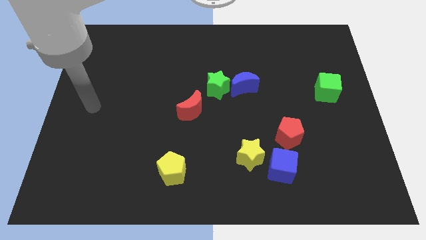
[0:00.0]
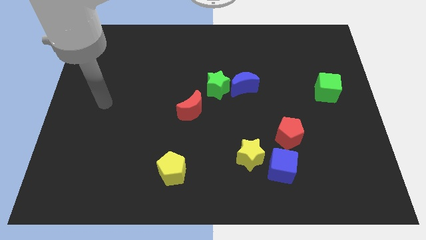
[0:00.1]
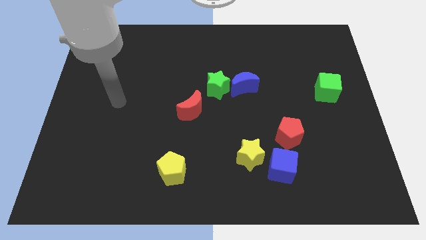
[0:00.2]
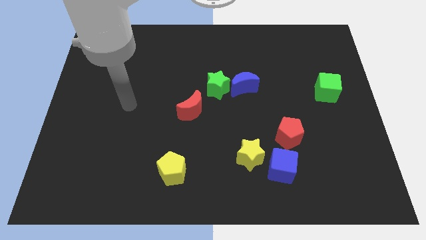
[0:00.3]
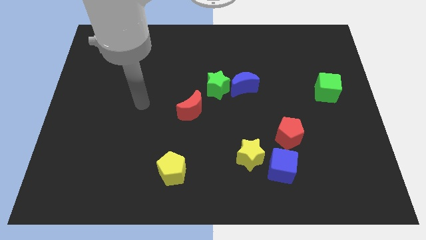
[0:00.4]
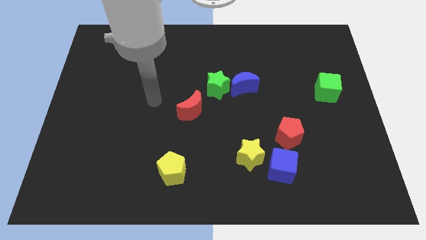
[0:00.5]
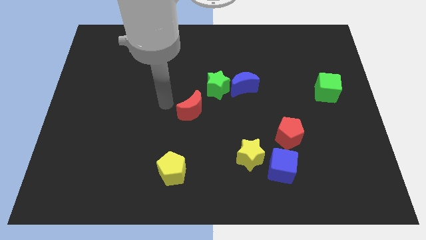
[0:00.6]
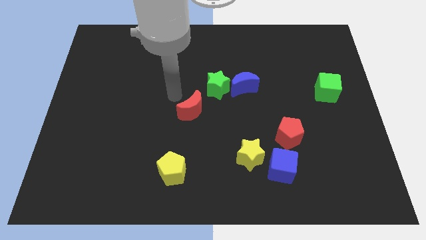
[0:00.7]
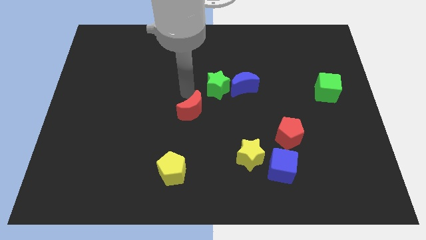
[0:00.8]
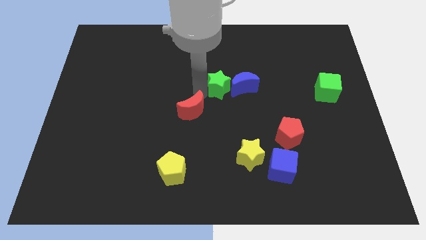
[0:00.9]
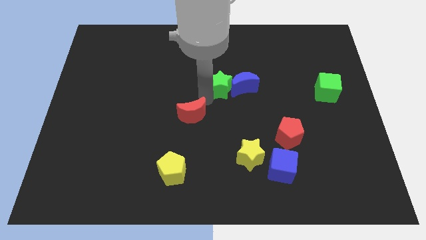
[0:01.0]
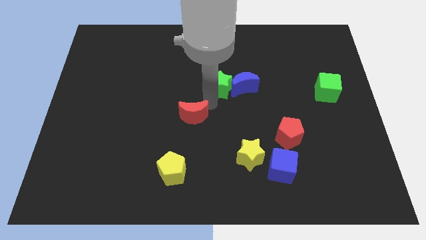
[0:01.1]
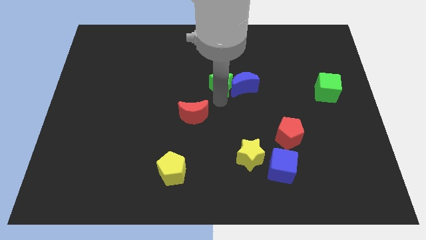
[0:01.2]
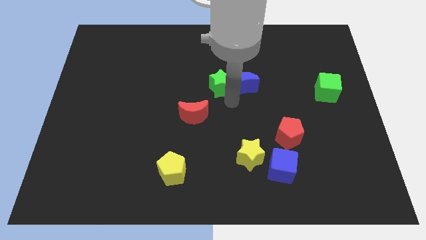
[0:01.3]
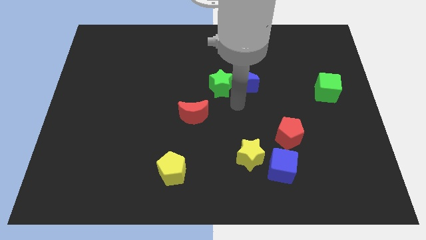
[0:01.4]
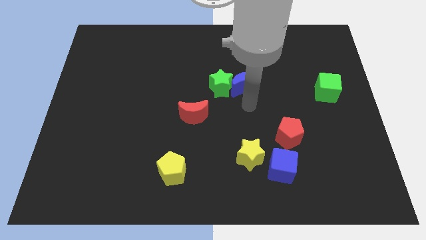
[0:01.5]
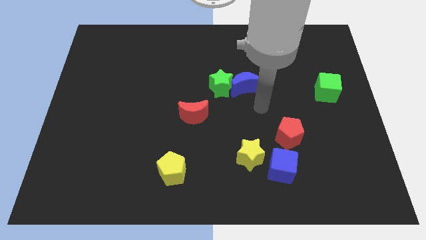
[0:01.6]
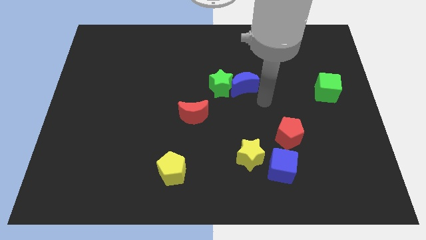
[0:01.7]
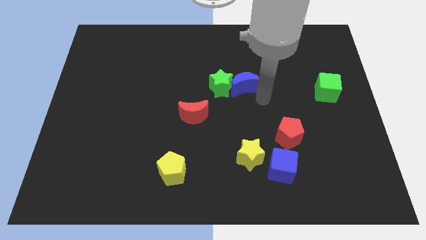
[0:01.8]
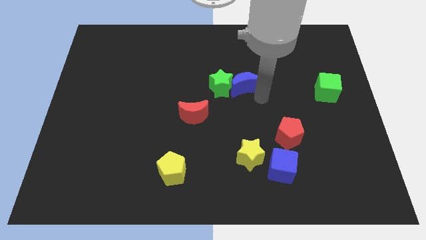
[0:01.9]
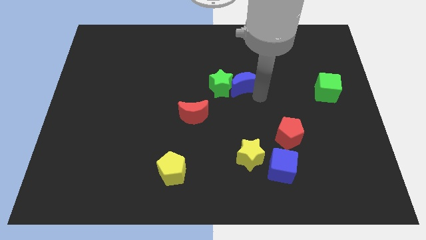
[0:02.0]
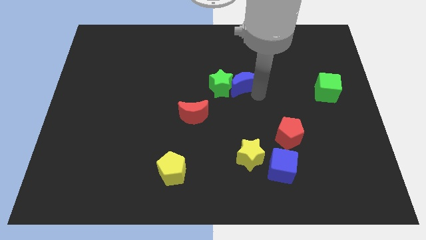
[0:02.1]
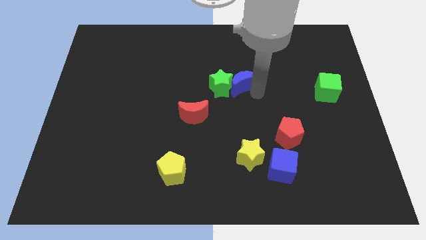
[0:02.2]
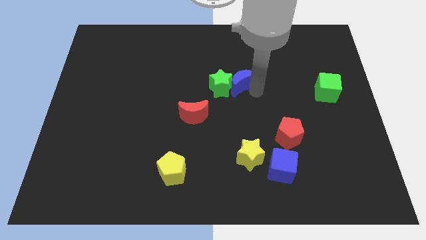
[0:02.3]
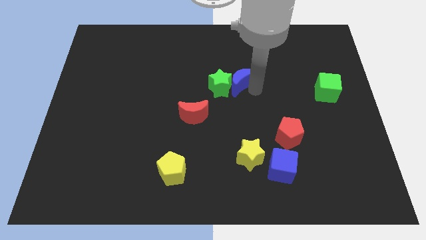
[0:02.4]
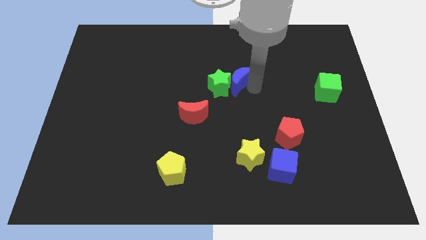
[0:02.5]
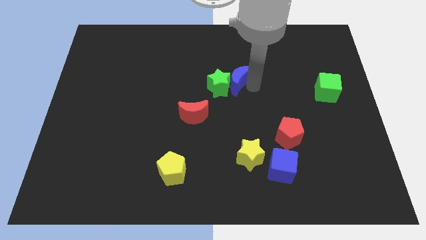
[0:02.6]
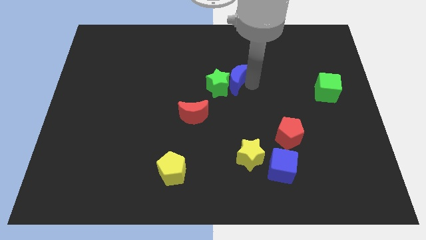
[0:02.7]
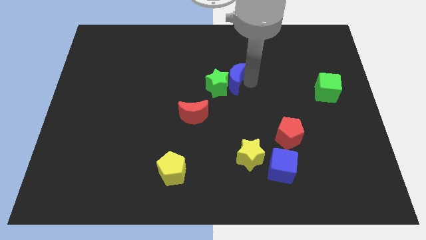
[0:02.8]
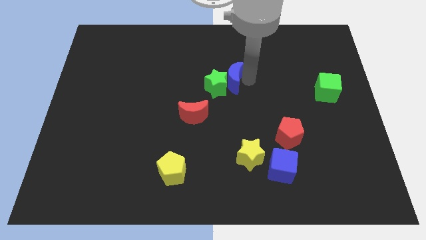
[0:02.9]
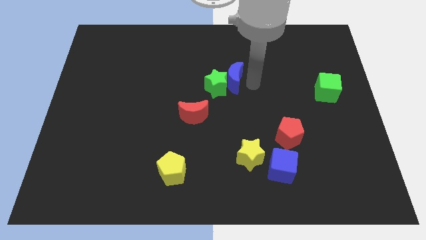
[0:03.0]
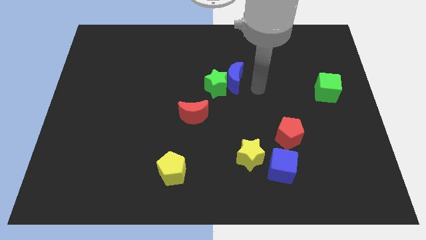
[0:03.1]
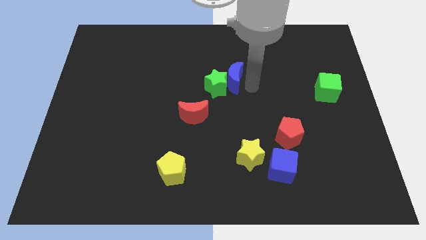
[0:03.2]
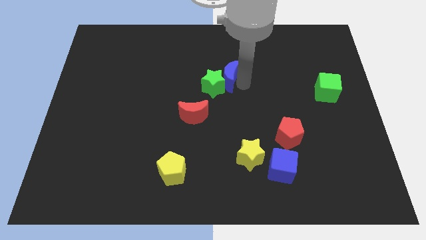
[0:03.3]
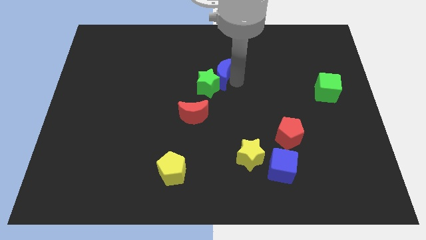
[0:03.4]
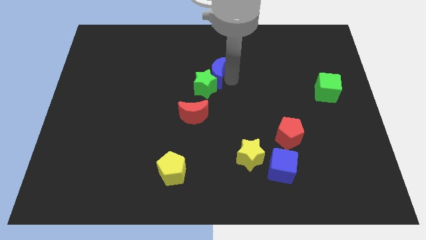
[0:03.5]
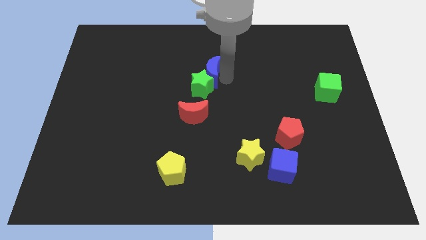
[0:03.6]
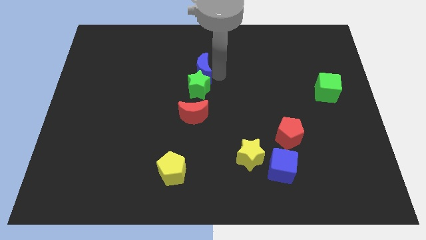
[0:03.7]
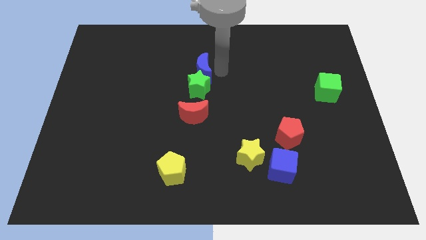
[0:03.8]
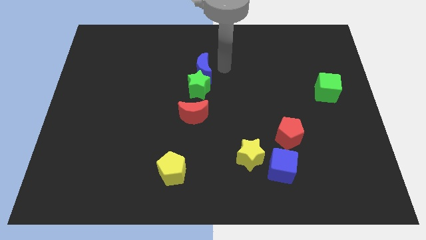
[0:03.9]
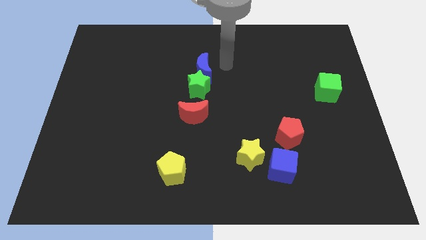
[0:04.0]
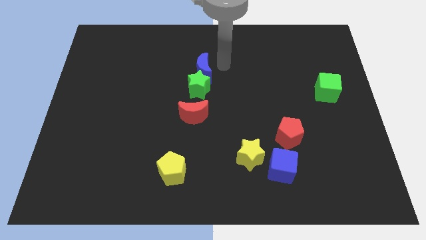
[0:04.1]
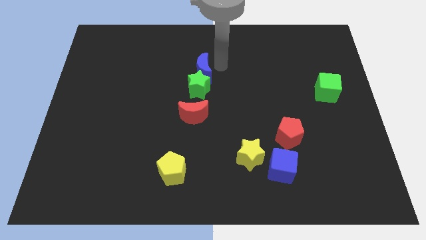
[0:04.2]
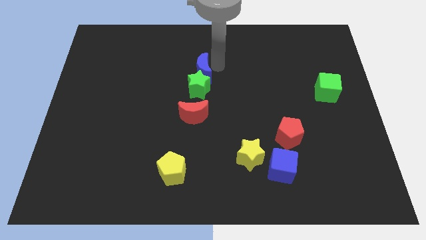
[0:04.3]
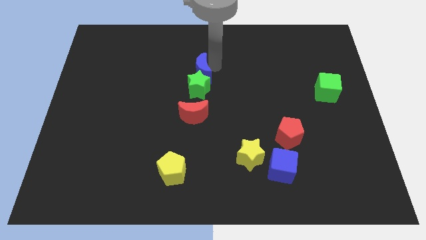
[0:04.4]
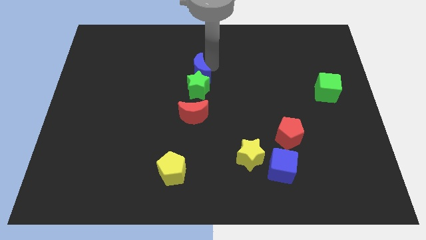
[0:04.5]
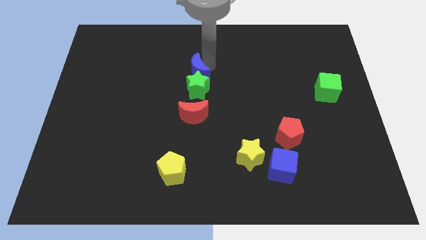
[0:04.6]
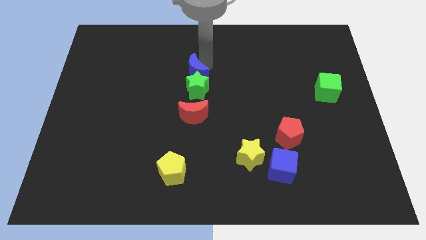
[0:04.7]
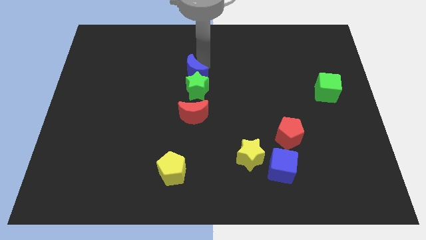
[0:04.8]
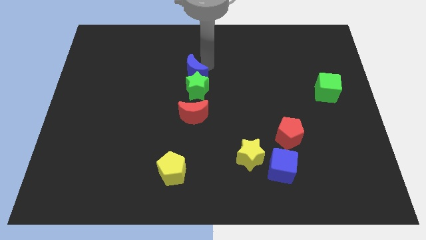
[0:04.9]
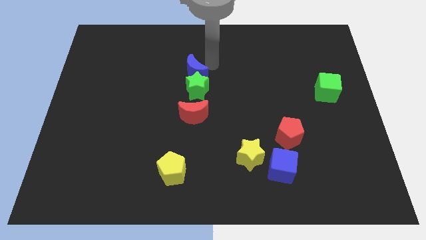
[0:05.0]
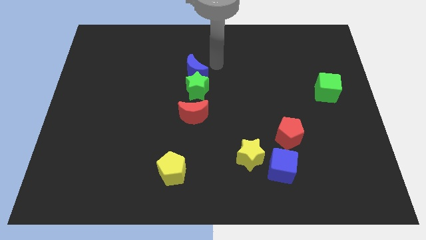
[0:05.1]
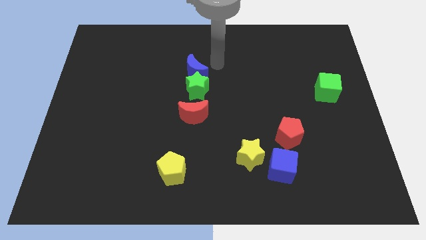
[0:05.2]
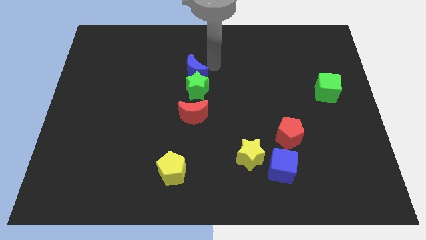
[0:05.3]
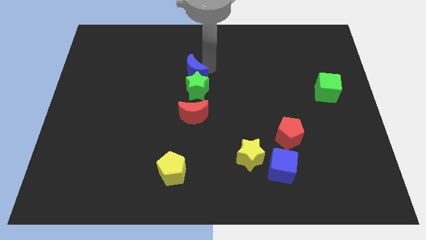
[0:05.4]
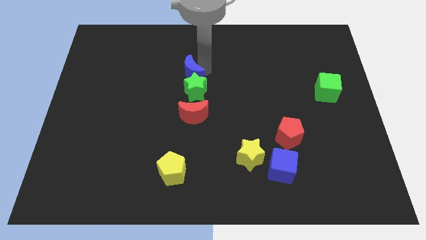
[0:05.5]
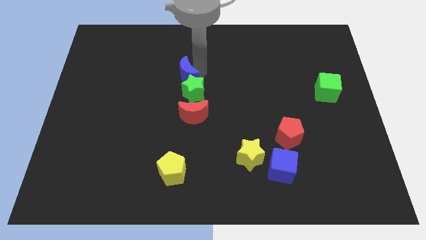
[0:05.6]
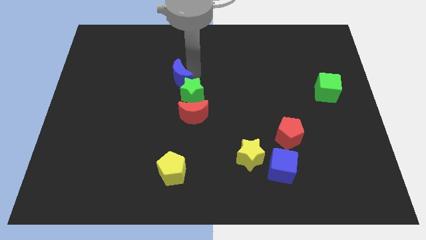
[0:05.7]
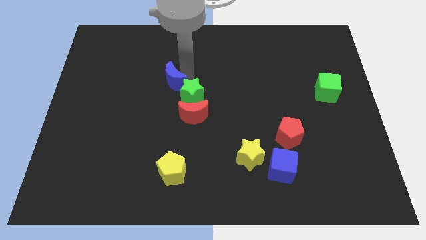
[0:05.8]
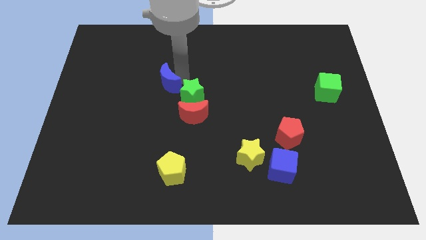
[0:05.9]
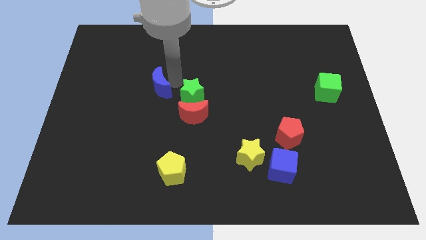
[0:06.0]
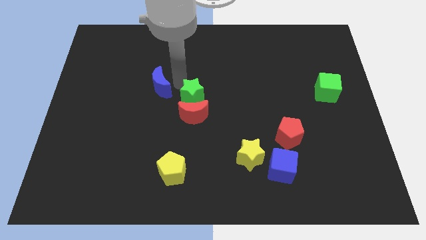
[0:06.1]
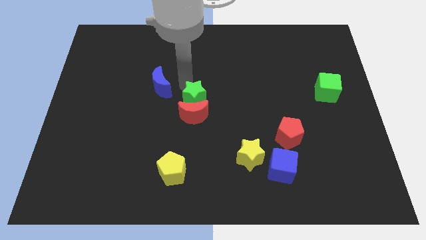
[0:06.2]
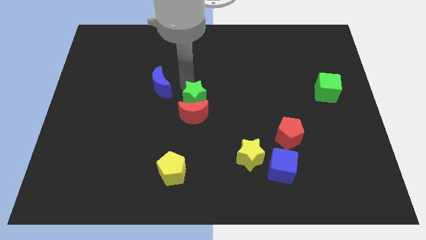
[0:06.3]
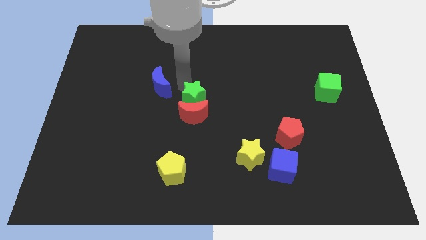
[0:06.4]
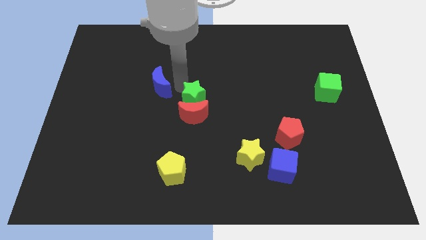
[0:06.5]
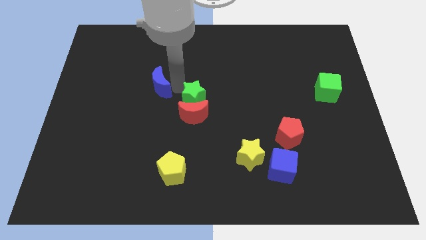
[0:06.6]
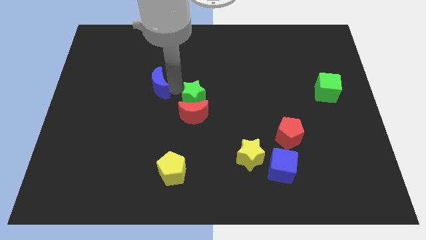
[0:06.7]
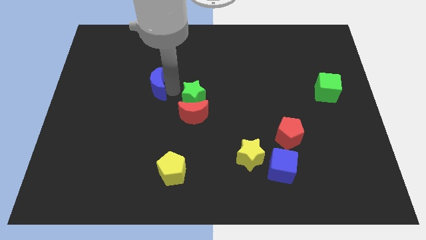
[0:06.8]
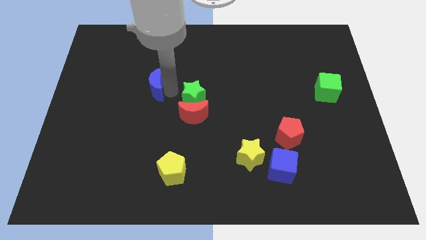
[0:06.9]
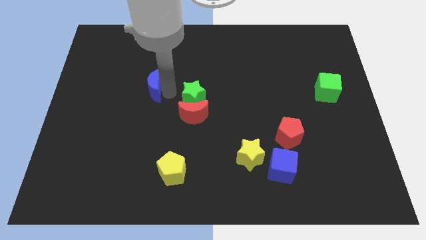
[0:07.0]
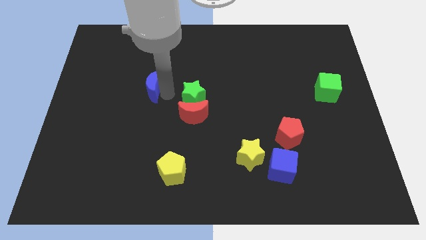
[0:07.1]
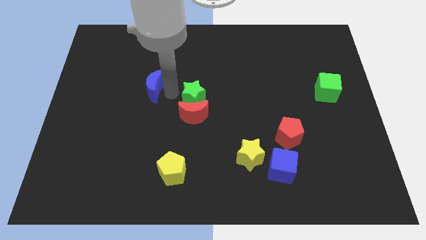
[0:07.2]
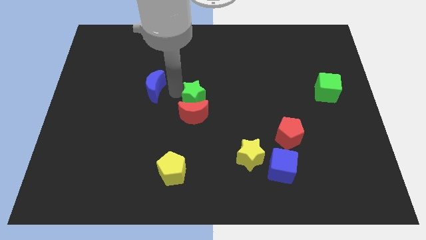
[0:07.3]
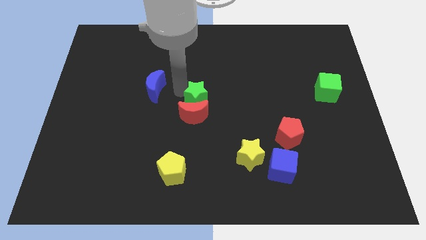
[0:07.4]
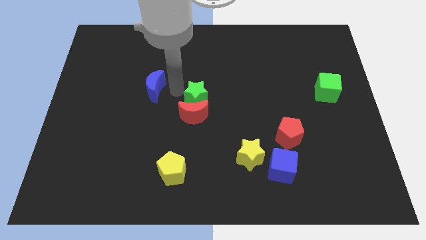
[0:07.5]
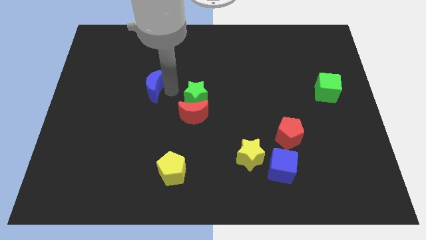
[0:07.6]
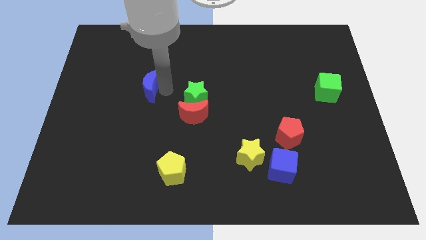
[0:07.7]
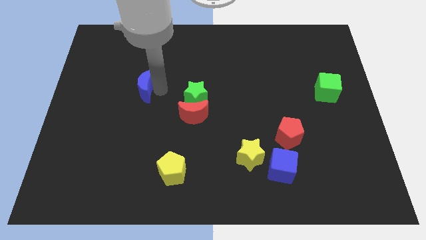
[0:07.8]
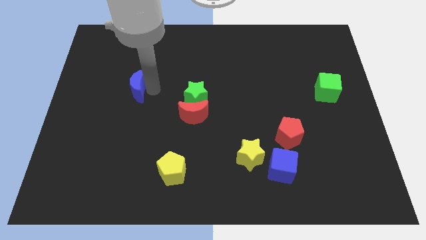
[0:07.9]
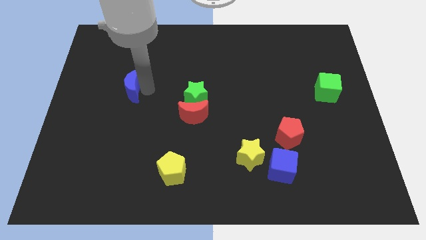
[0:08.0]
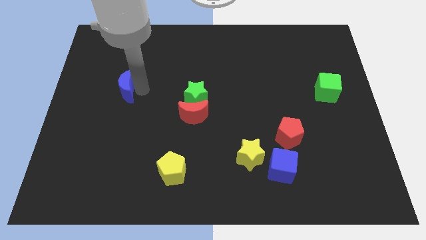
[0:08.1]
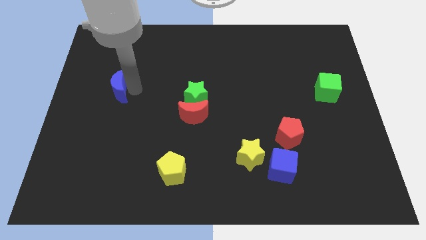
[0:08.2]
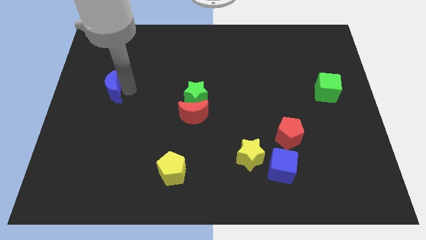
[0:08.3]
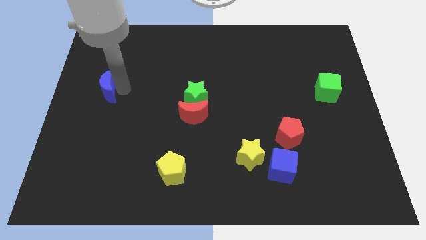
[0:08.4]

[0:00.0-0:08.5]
slide the blue moon to the left side of the board
